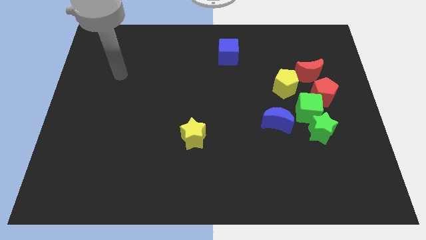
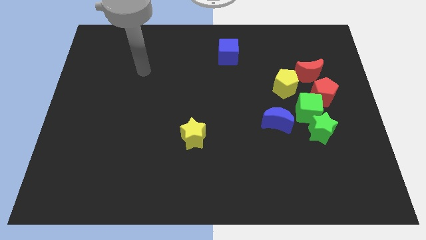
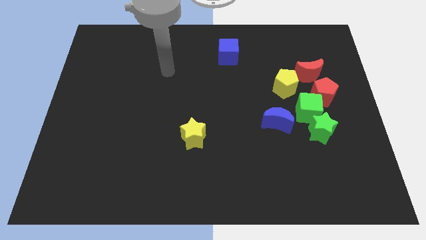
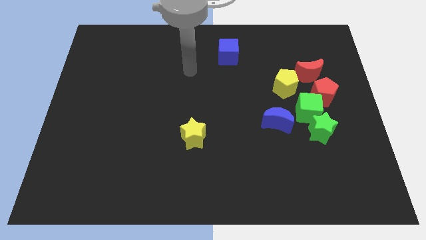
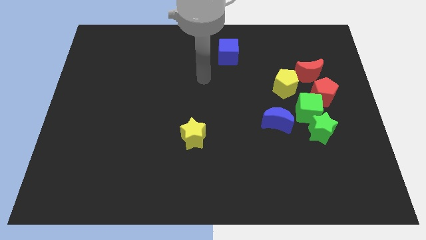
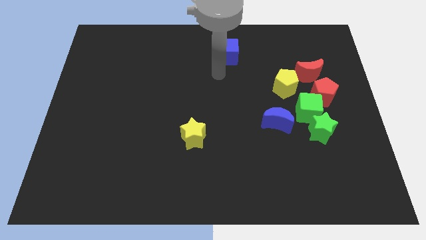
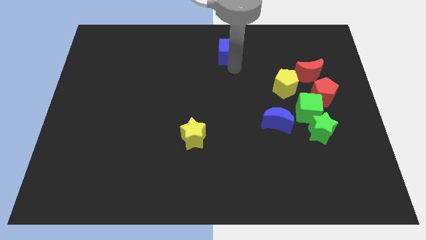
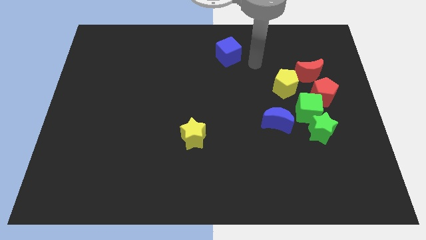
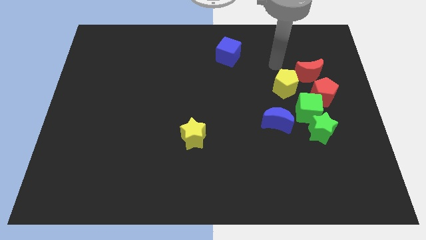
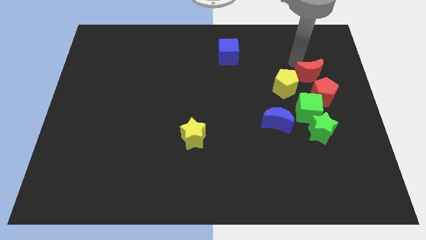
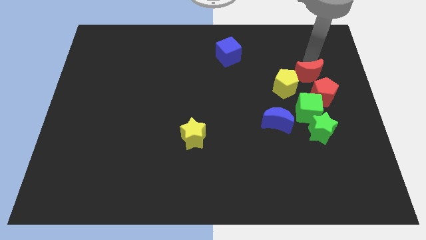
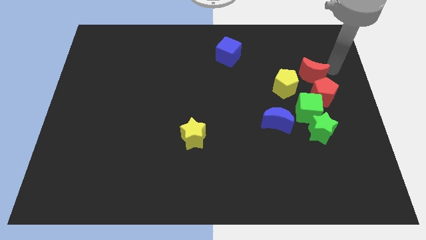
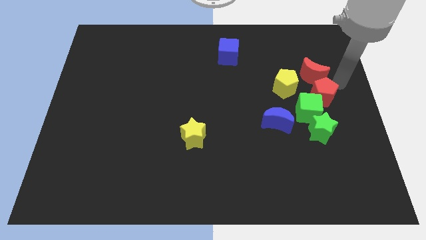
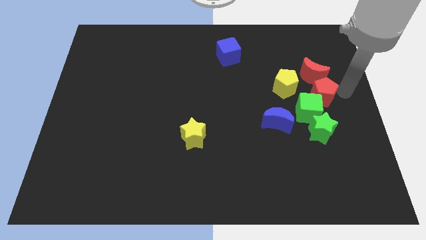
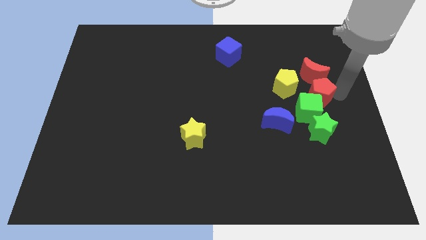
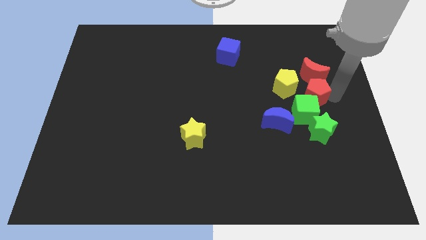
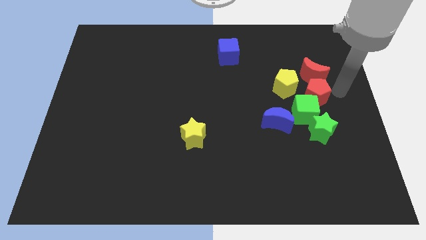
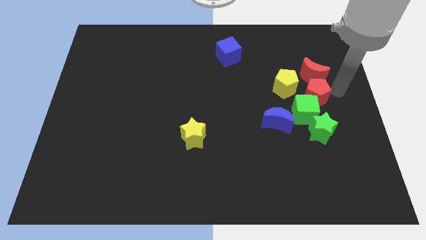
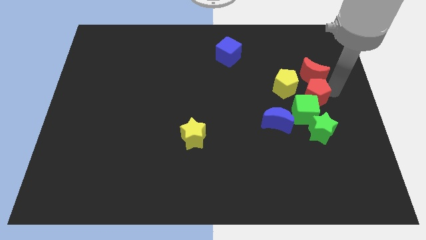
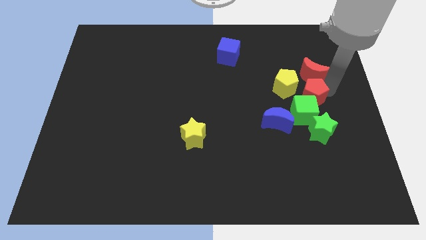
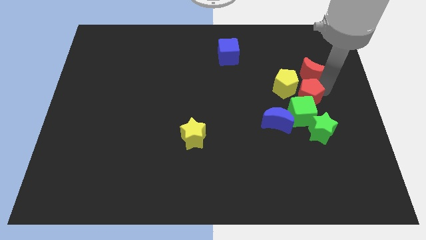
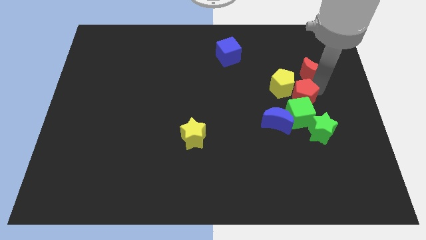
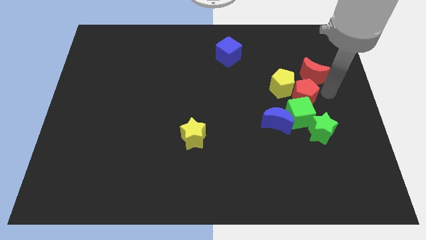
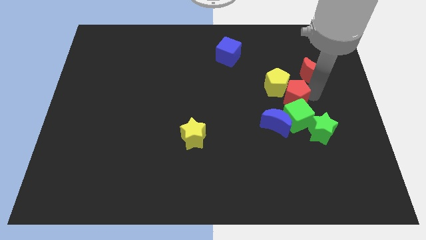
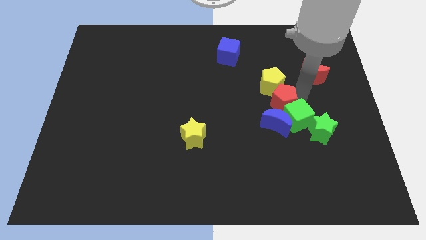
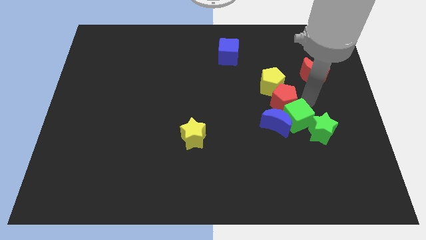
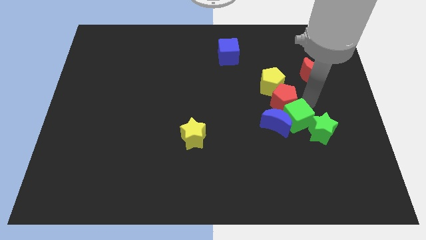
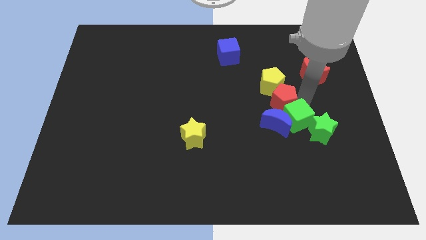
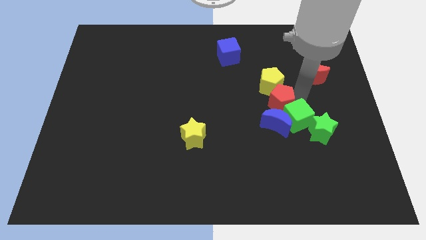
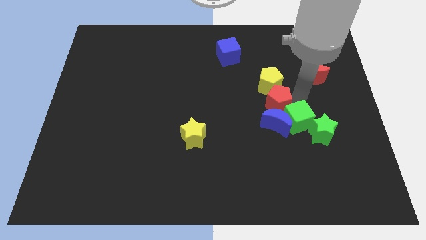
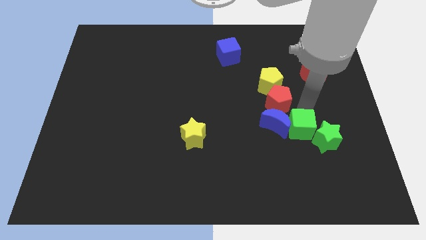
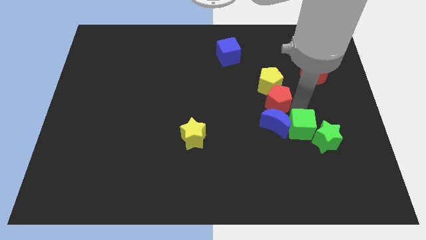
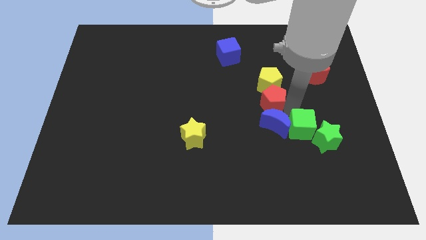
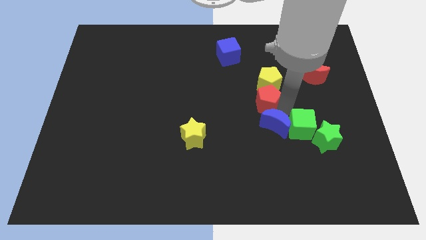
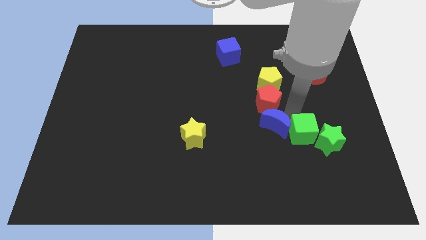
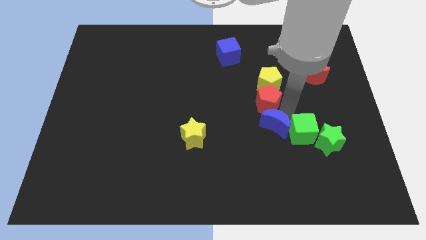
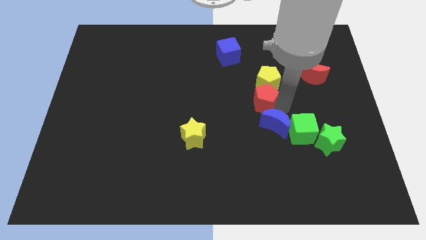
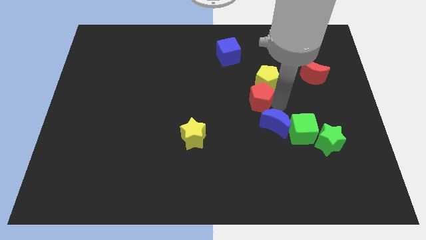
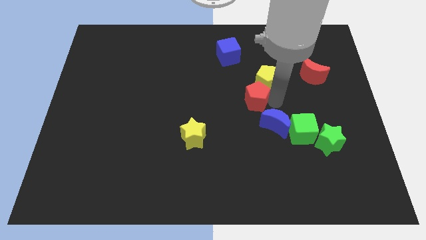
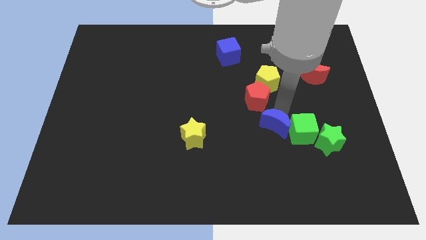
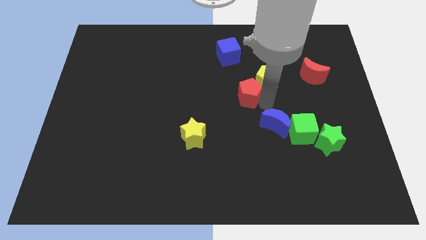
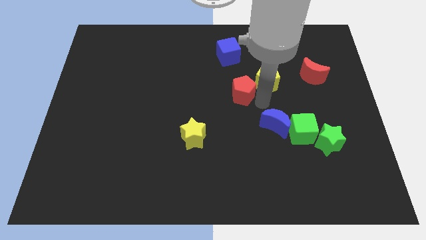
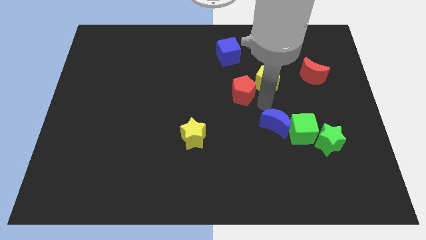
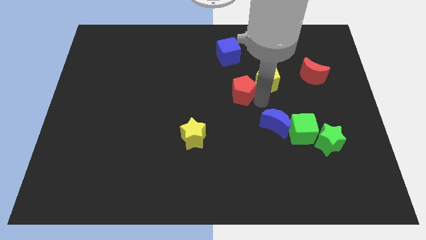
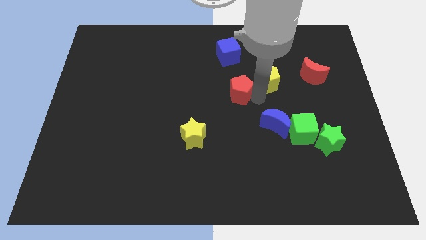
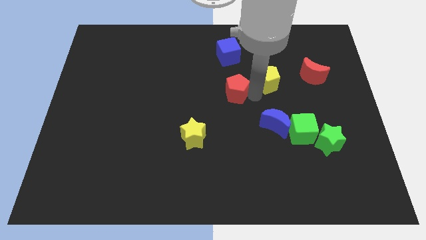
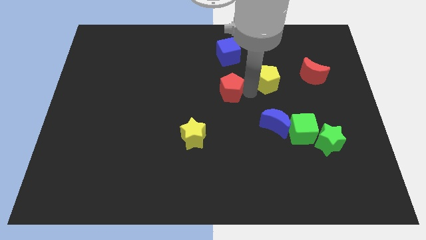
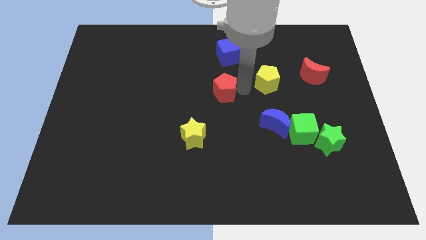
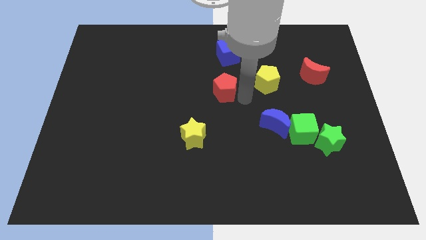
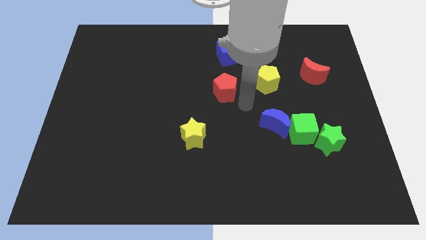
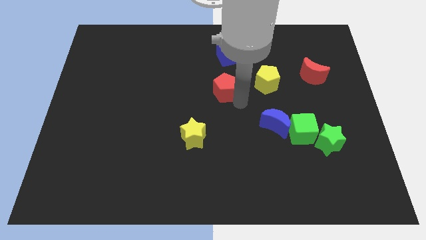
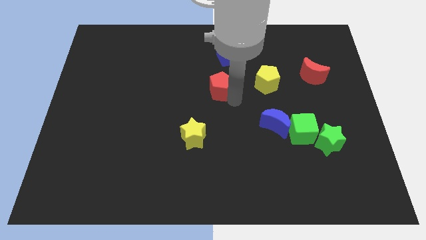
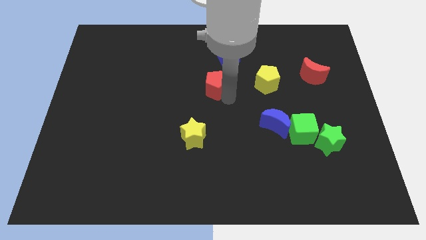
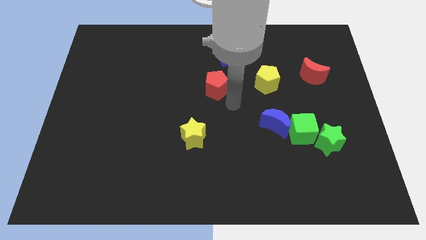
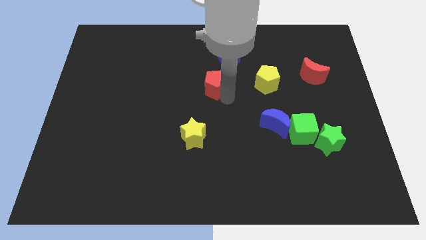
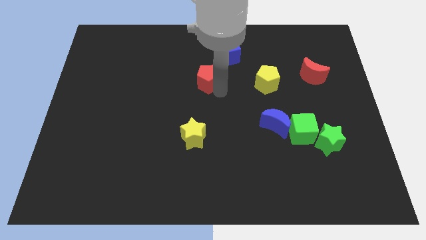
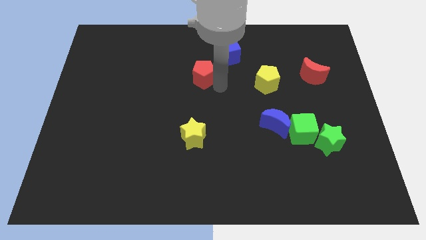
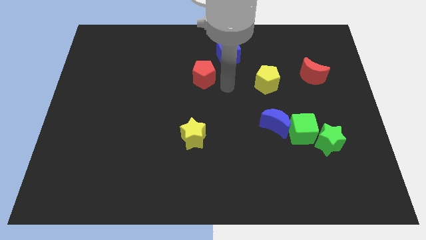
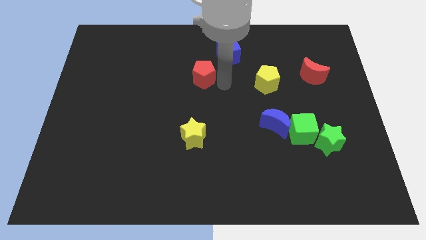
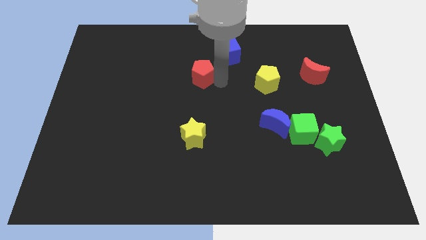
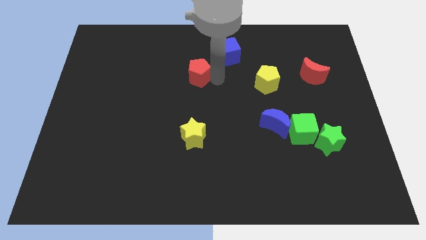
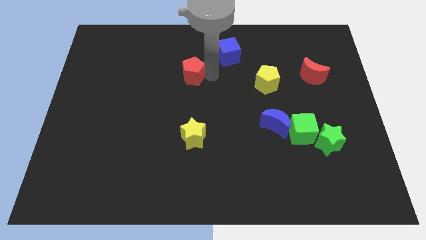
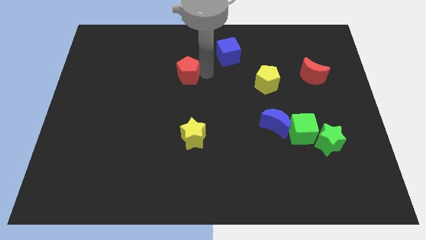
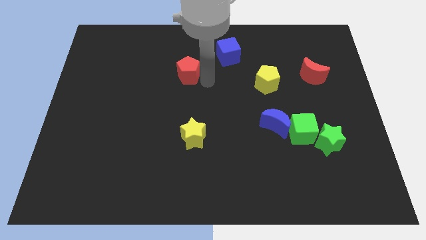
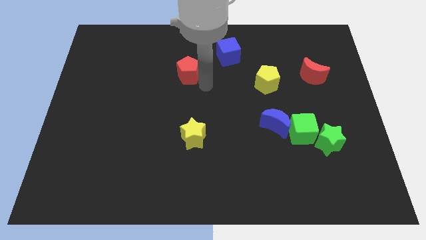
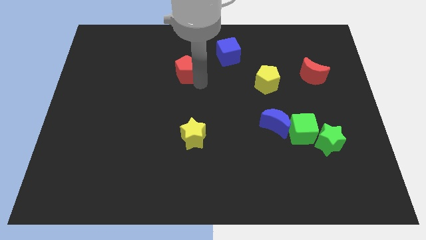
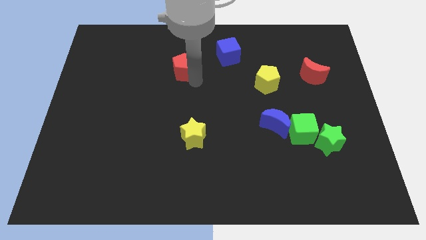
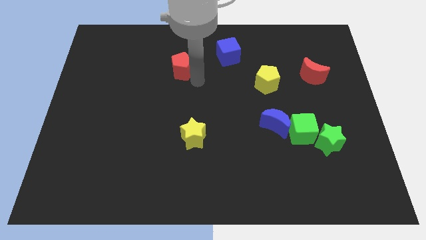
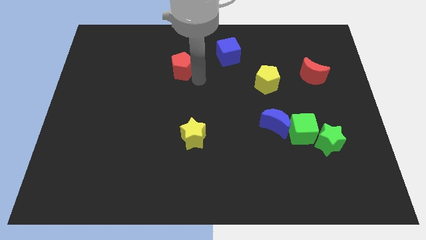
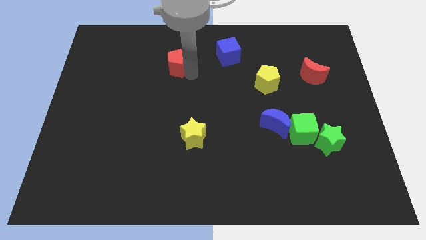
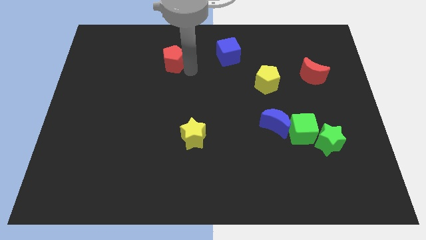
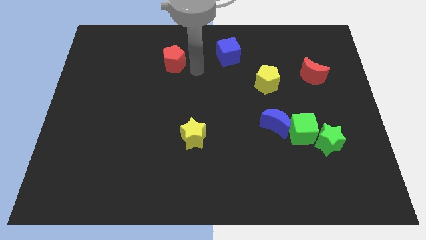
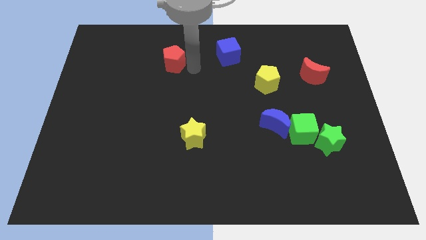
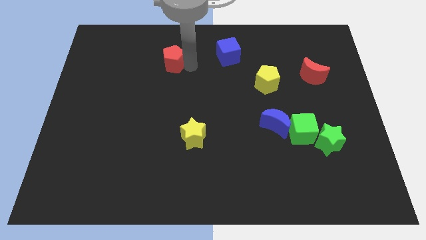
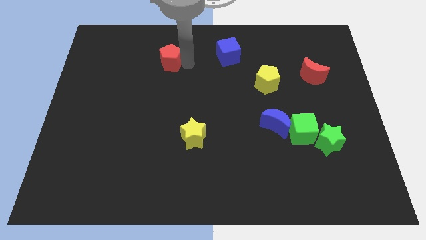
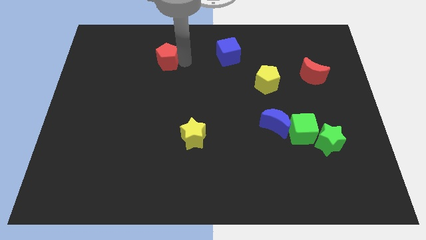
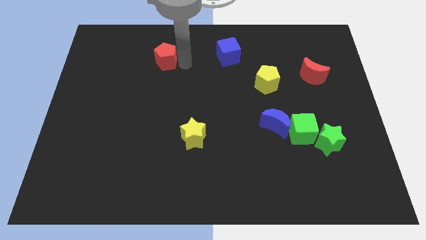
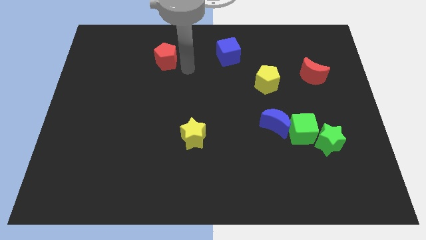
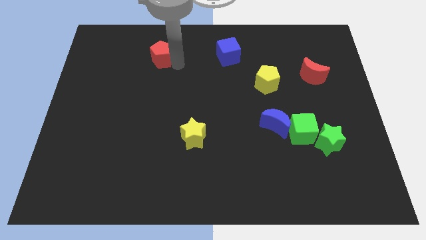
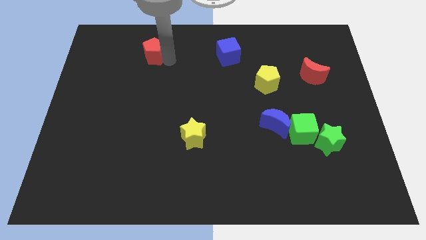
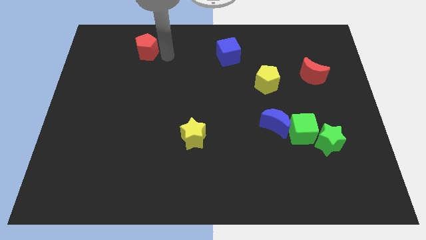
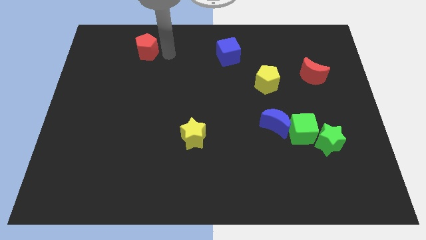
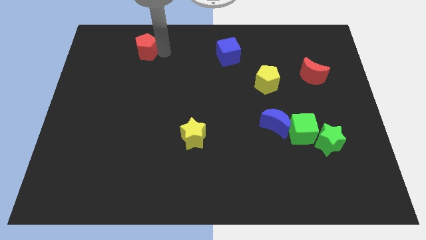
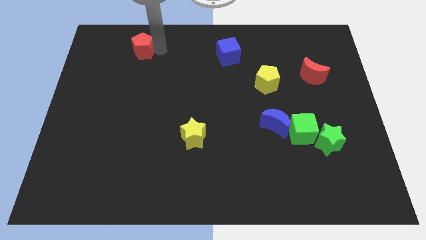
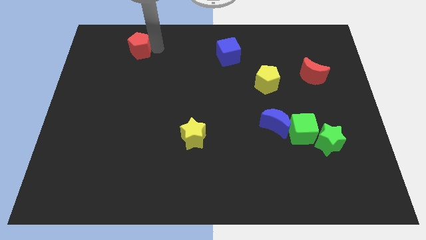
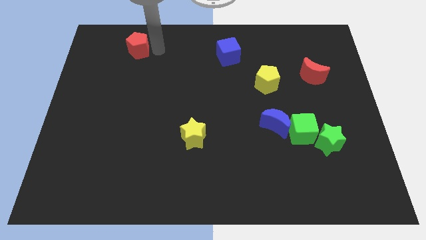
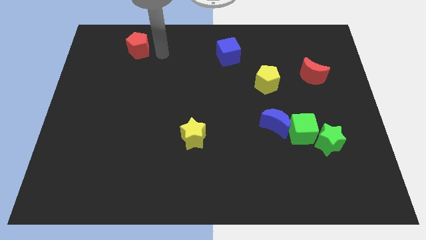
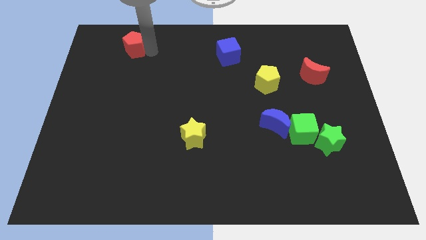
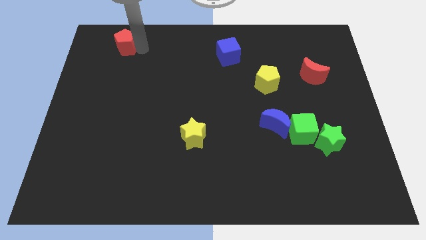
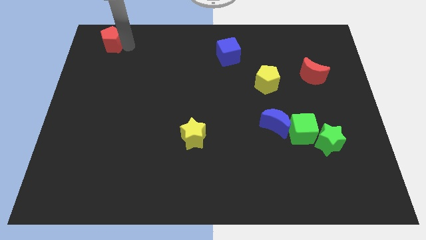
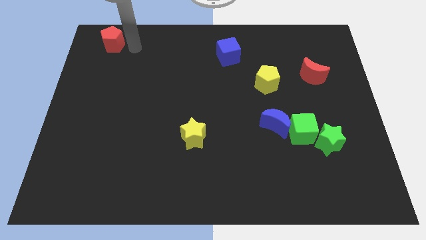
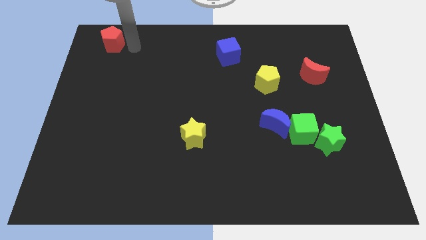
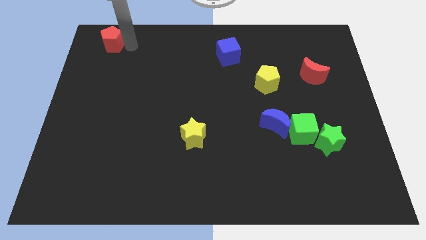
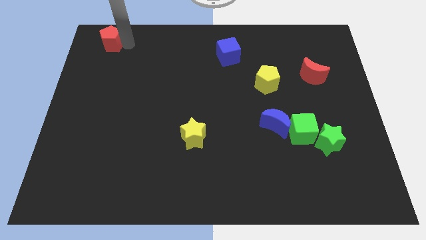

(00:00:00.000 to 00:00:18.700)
put the red pentagon to the top left of the board
